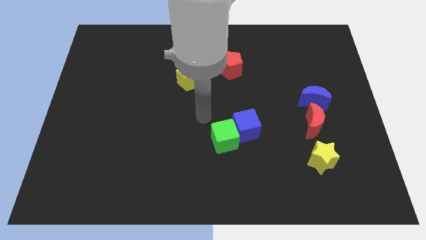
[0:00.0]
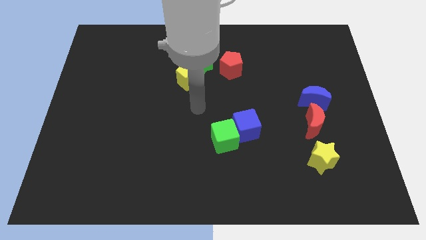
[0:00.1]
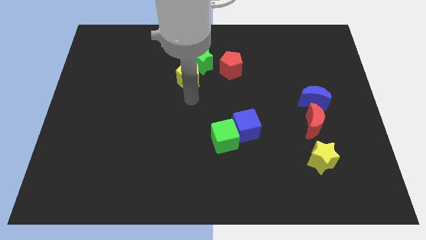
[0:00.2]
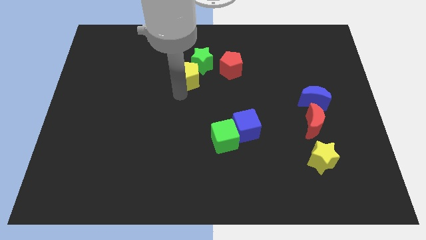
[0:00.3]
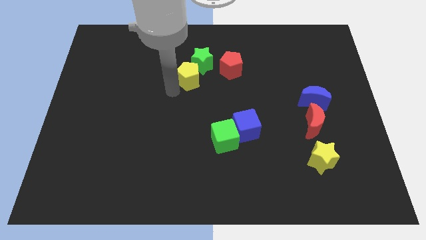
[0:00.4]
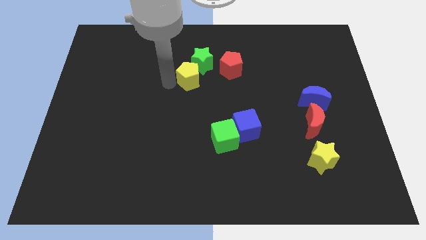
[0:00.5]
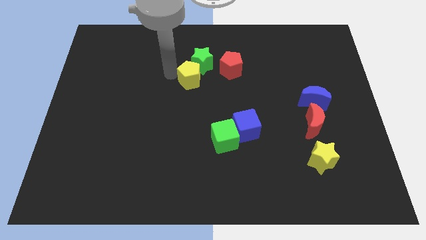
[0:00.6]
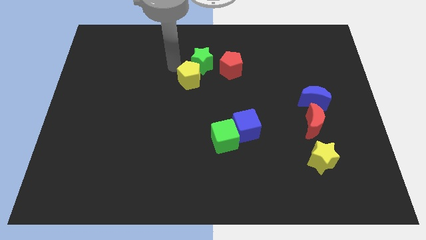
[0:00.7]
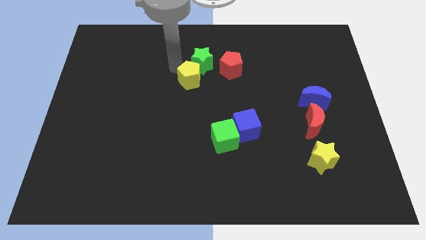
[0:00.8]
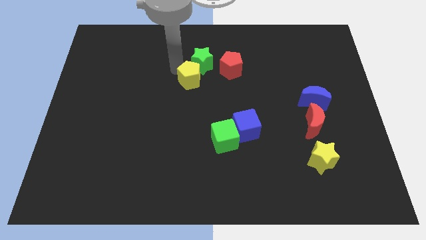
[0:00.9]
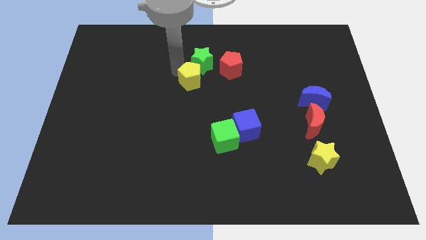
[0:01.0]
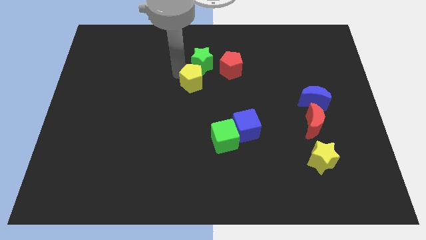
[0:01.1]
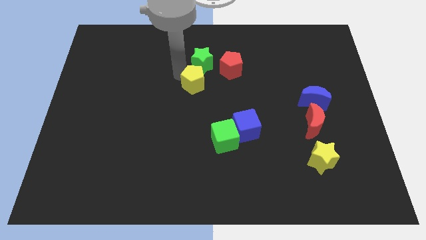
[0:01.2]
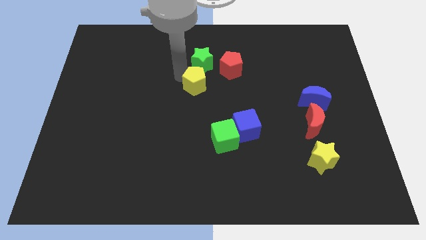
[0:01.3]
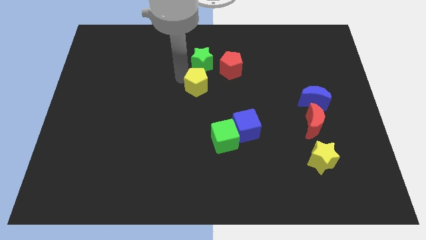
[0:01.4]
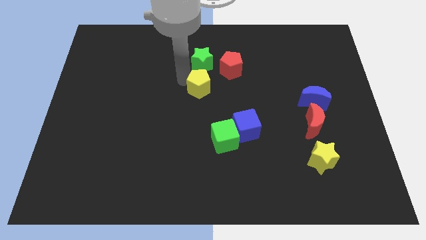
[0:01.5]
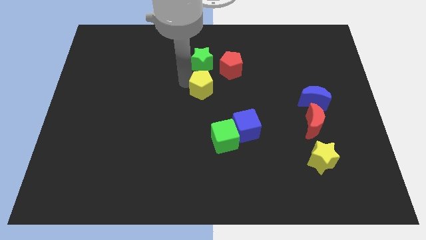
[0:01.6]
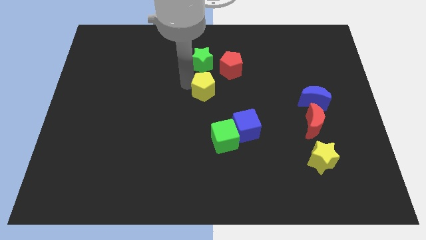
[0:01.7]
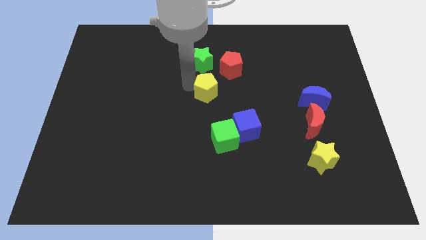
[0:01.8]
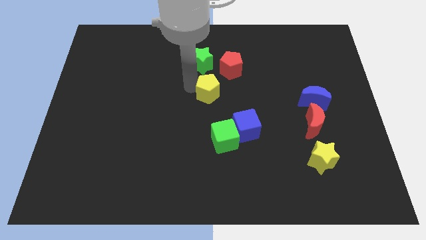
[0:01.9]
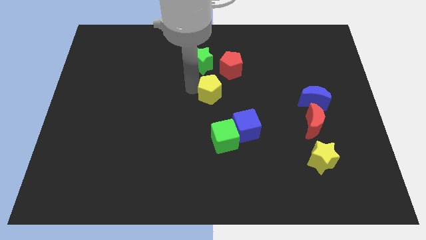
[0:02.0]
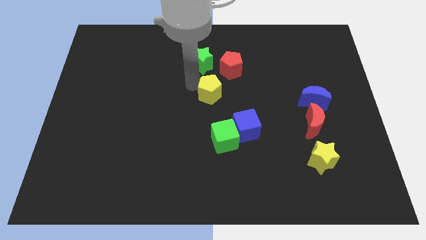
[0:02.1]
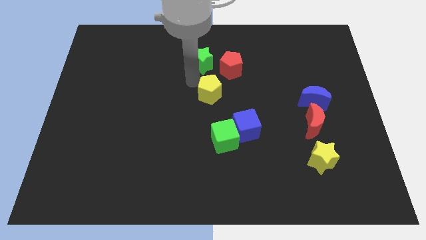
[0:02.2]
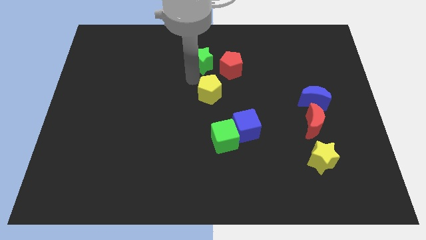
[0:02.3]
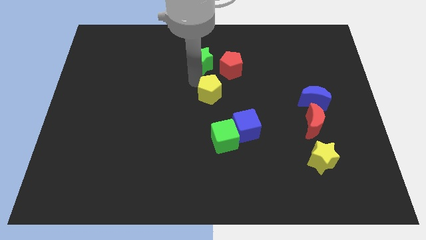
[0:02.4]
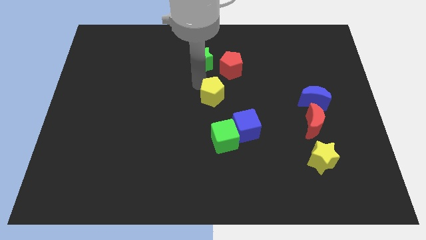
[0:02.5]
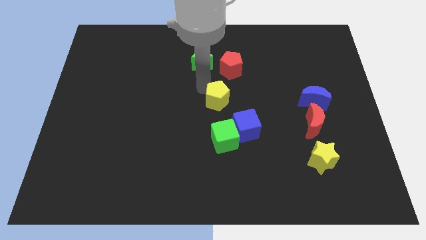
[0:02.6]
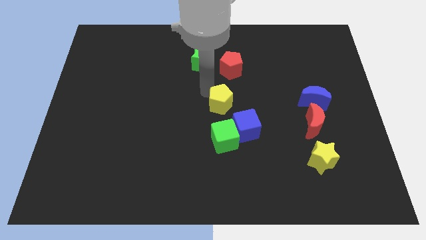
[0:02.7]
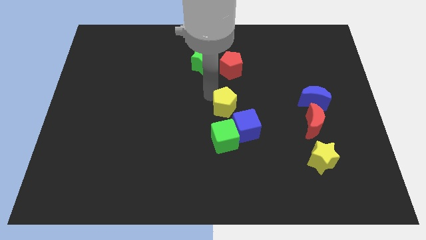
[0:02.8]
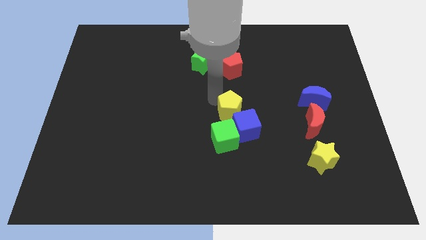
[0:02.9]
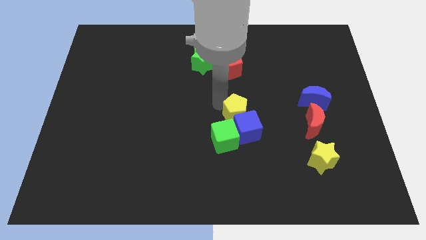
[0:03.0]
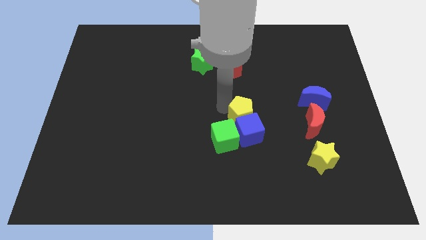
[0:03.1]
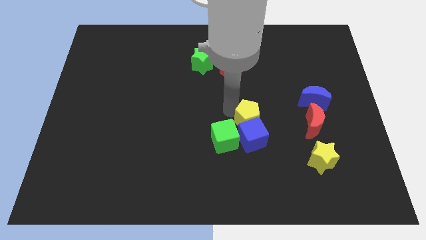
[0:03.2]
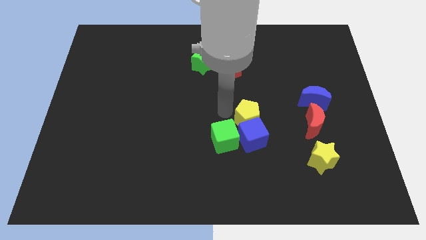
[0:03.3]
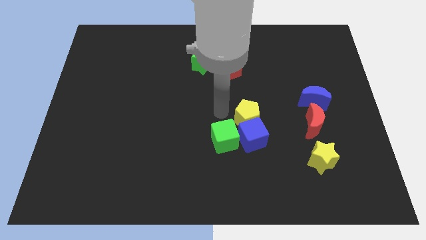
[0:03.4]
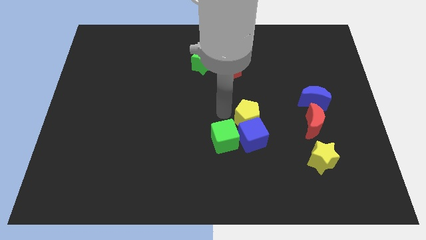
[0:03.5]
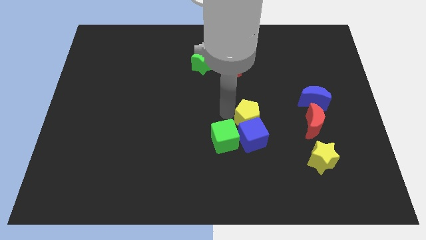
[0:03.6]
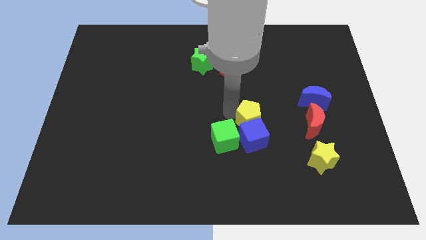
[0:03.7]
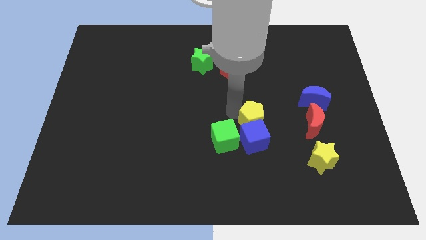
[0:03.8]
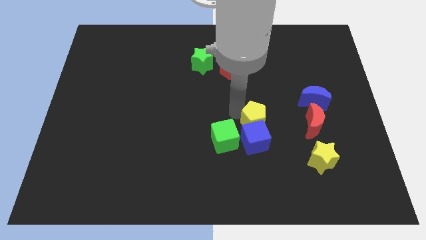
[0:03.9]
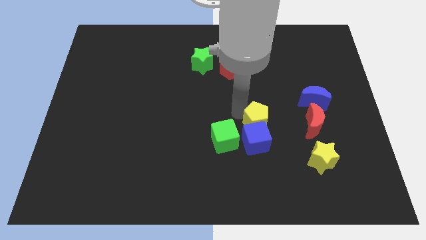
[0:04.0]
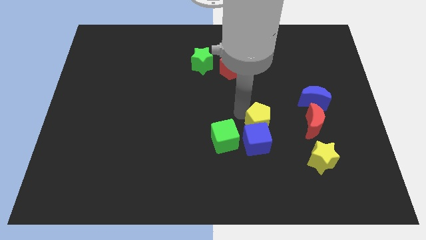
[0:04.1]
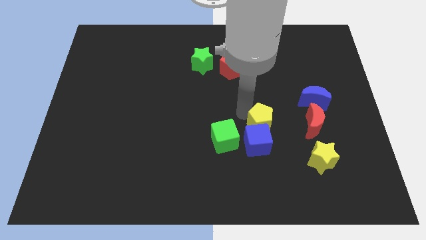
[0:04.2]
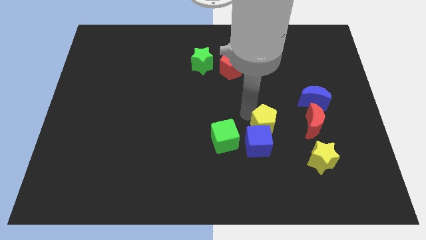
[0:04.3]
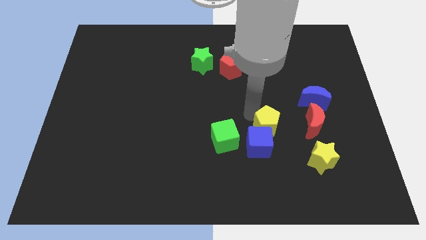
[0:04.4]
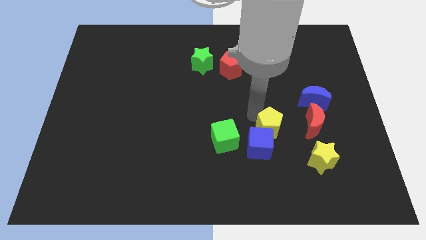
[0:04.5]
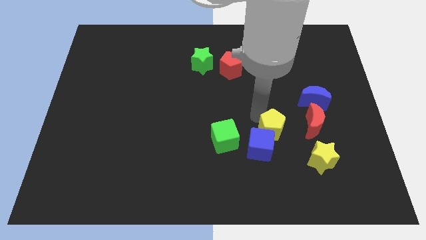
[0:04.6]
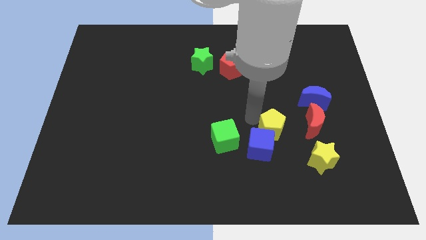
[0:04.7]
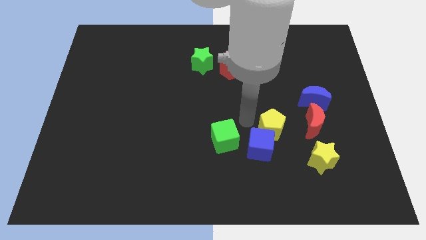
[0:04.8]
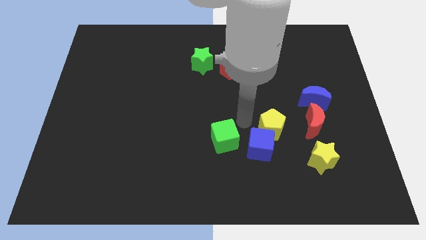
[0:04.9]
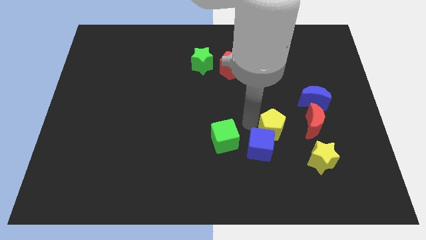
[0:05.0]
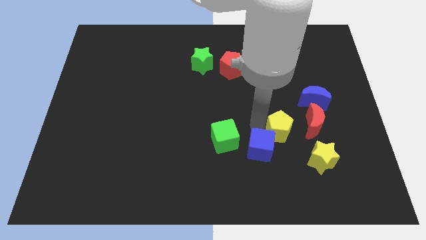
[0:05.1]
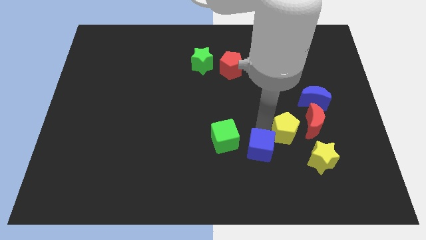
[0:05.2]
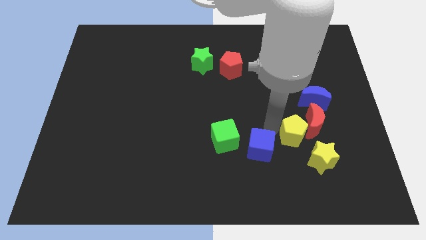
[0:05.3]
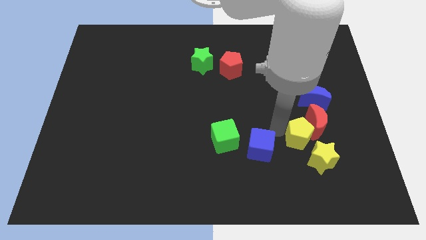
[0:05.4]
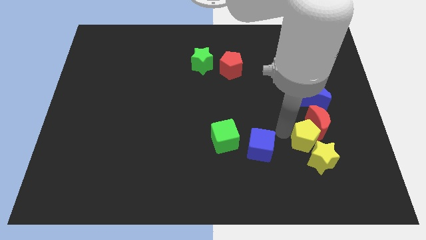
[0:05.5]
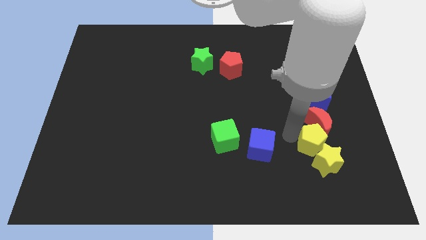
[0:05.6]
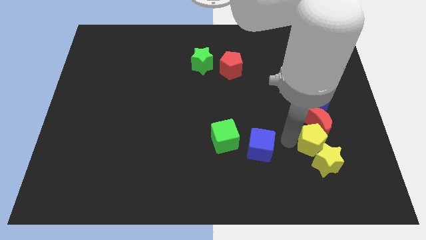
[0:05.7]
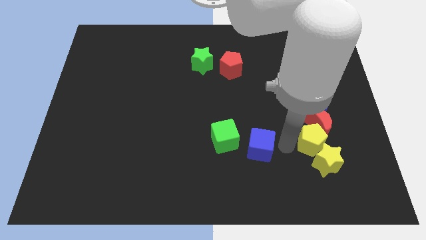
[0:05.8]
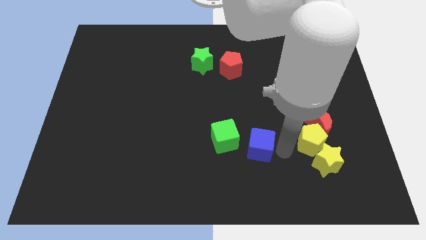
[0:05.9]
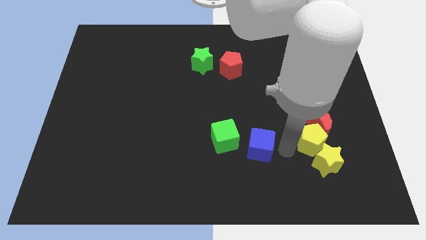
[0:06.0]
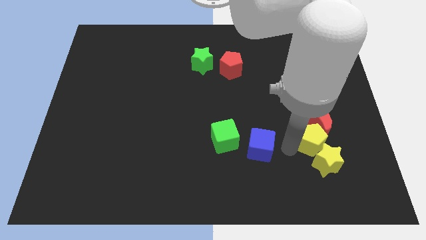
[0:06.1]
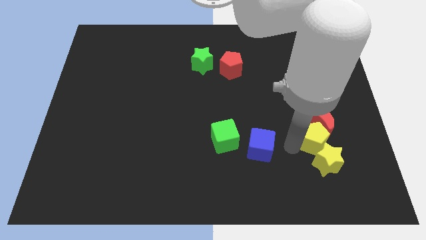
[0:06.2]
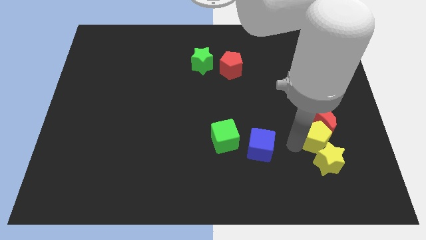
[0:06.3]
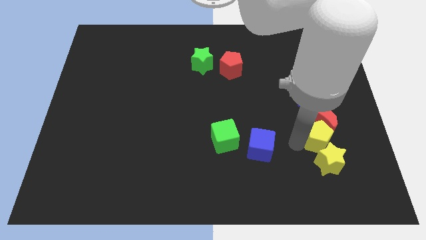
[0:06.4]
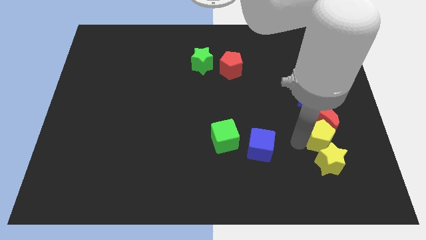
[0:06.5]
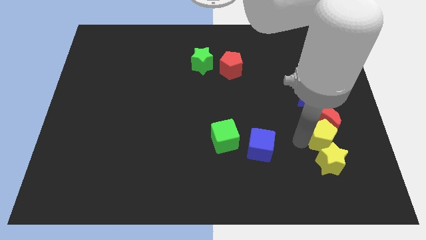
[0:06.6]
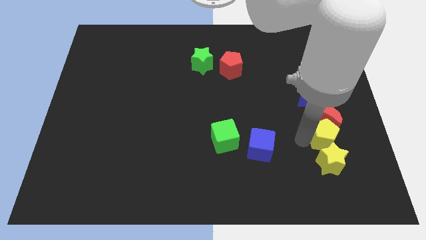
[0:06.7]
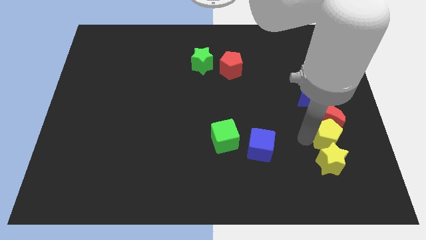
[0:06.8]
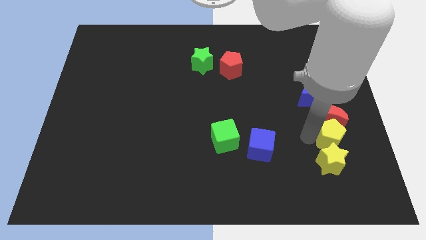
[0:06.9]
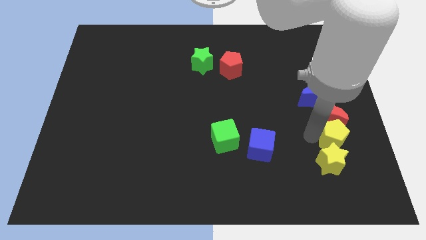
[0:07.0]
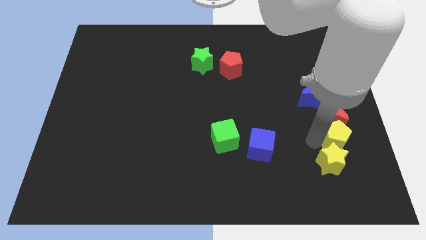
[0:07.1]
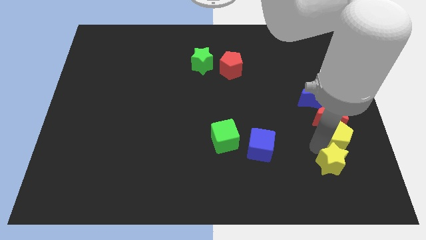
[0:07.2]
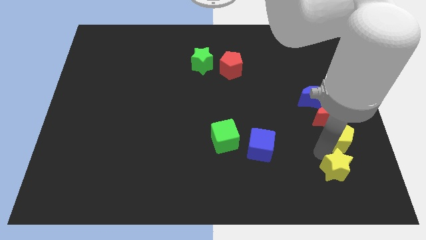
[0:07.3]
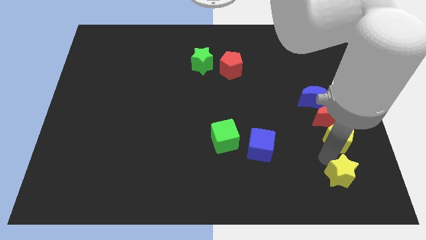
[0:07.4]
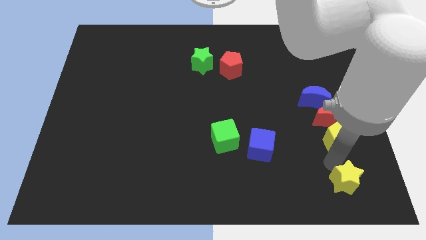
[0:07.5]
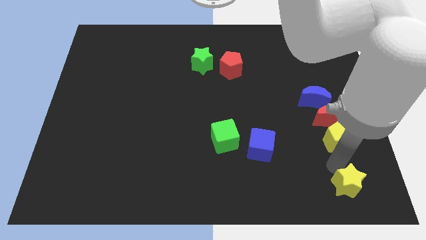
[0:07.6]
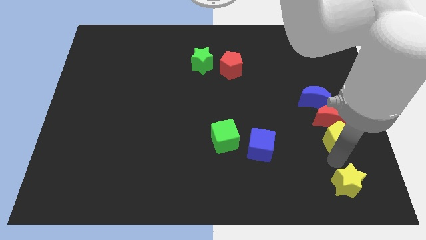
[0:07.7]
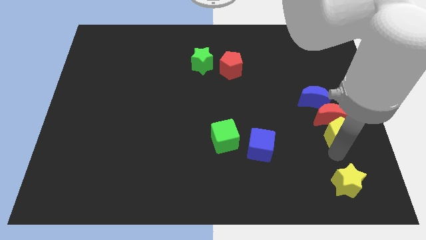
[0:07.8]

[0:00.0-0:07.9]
slide the yellow pentagon to the bottom right side of the blue moon

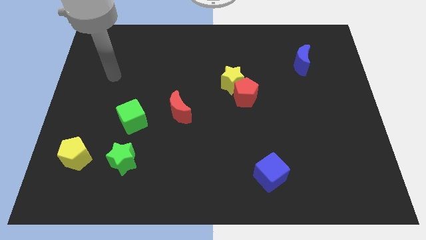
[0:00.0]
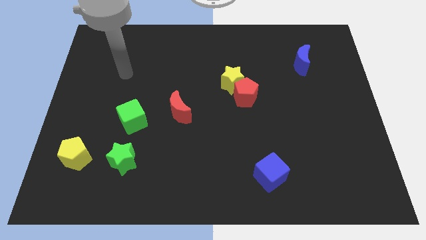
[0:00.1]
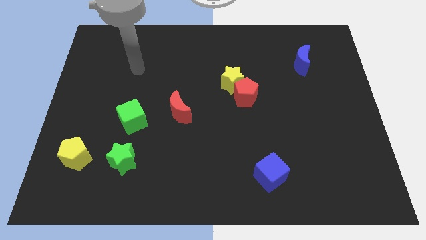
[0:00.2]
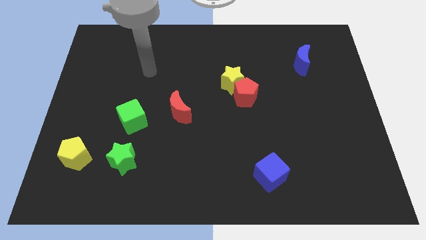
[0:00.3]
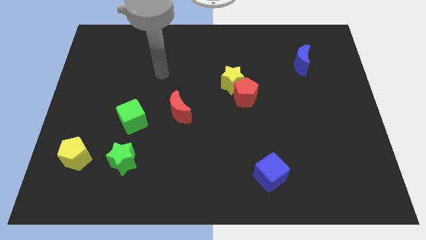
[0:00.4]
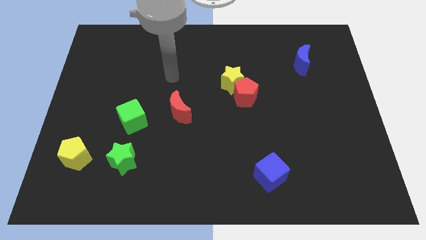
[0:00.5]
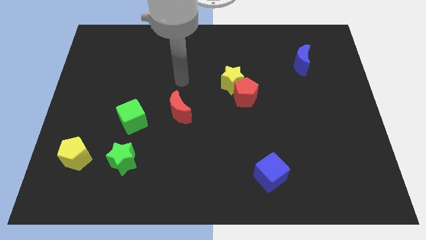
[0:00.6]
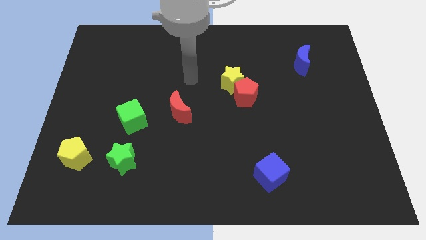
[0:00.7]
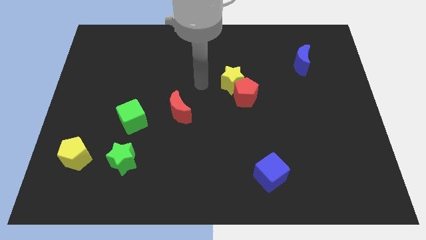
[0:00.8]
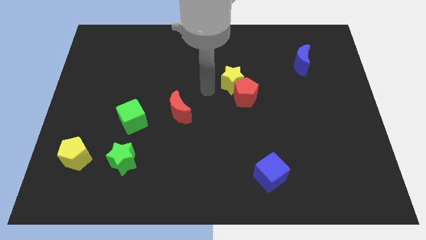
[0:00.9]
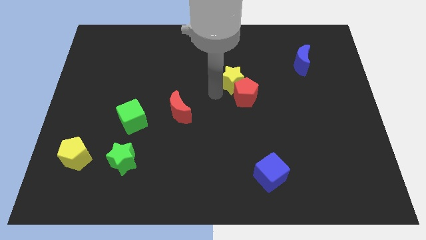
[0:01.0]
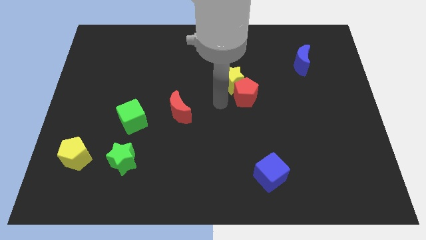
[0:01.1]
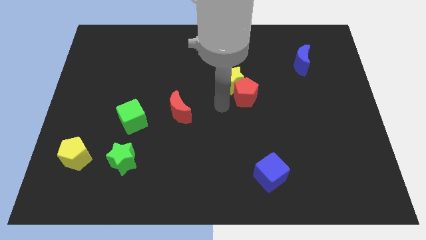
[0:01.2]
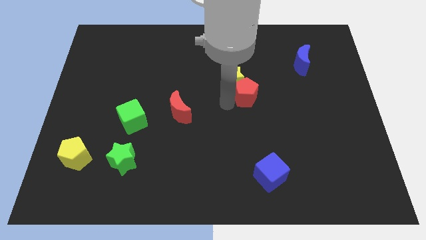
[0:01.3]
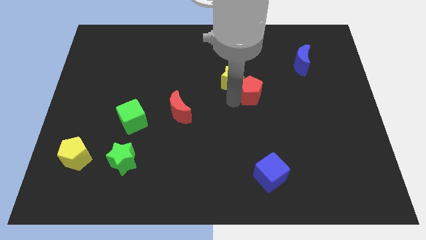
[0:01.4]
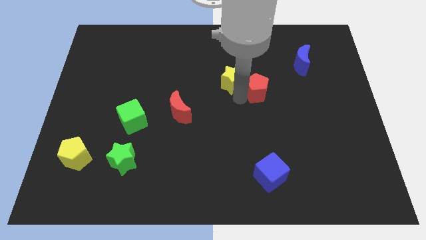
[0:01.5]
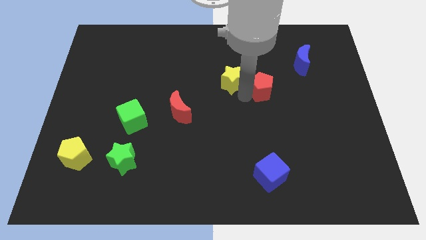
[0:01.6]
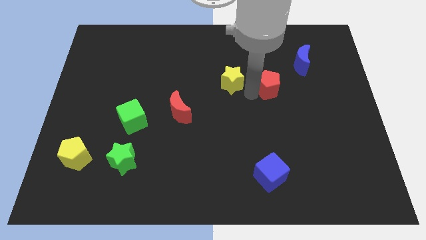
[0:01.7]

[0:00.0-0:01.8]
slide the red pentagon to the bottom left of the blue moon
